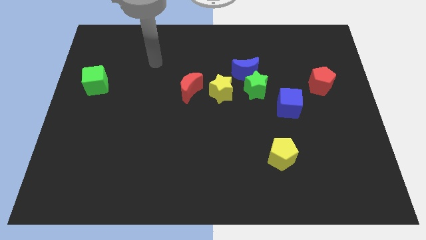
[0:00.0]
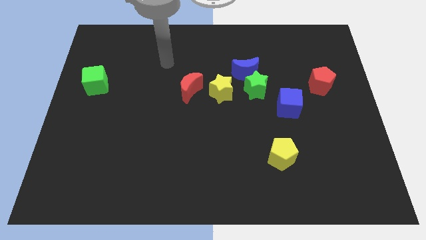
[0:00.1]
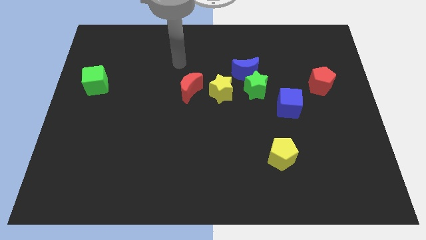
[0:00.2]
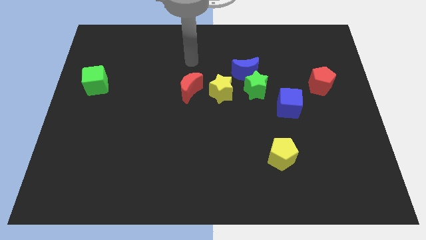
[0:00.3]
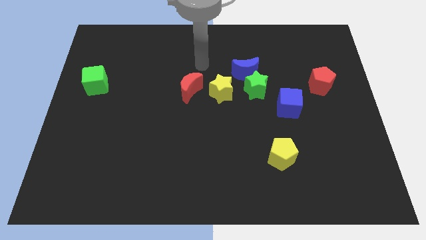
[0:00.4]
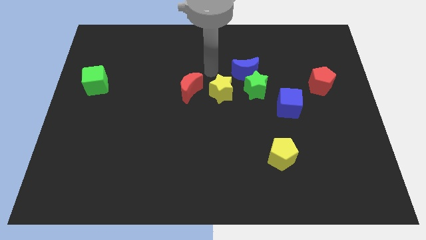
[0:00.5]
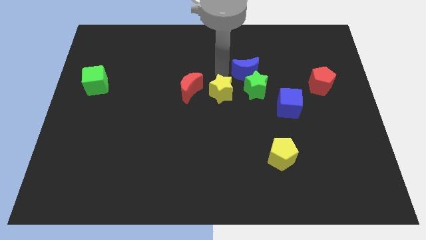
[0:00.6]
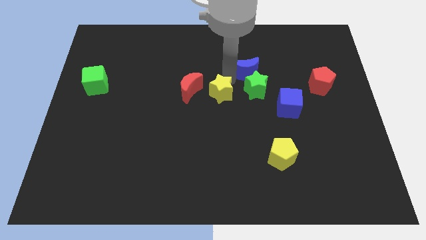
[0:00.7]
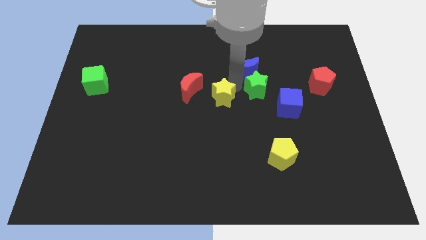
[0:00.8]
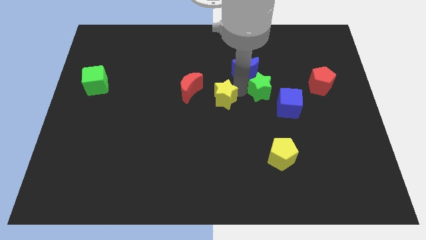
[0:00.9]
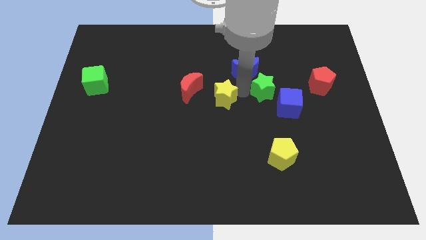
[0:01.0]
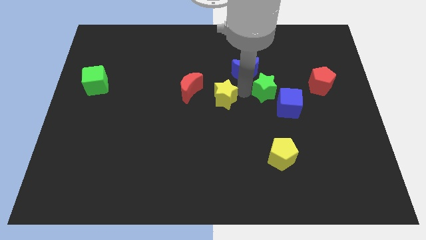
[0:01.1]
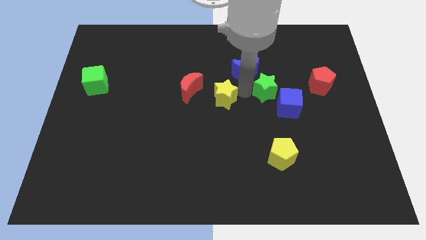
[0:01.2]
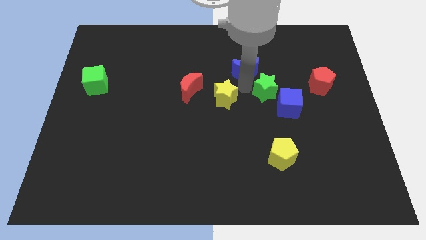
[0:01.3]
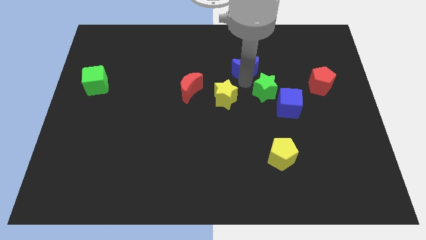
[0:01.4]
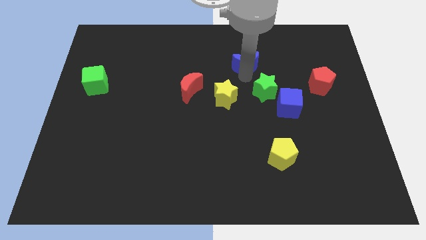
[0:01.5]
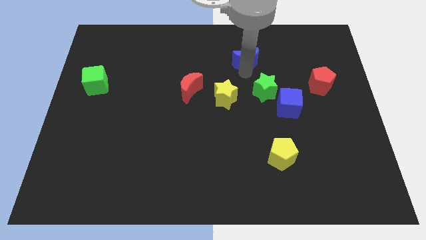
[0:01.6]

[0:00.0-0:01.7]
pull the blue moon apart from the green star and yellow star

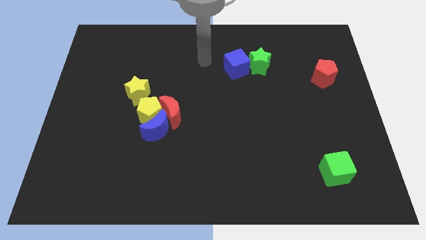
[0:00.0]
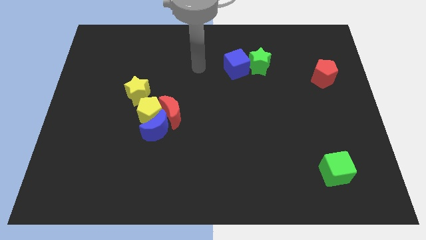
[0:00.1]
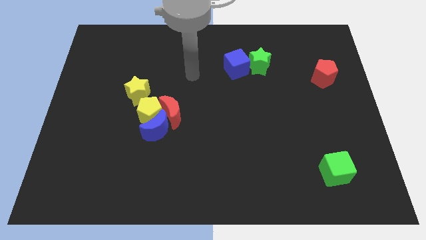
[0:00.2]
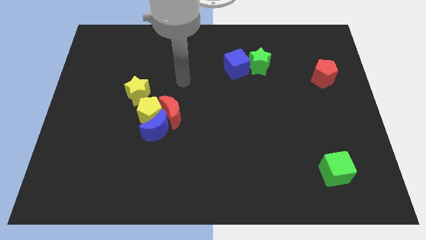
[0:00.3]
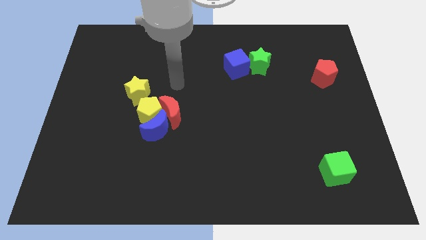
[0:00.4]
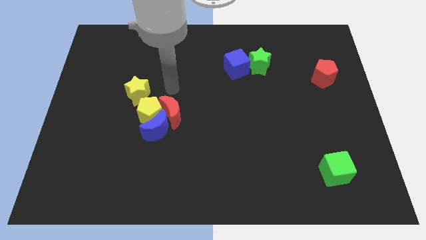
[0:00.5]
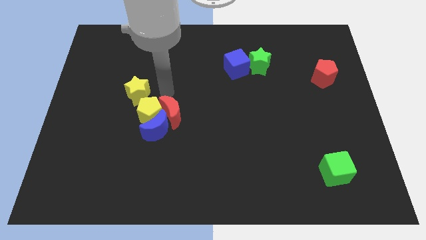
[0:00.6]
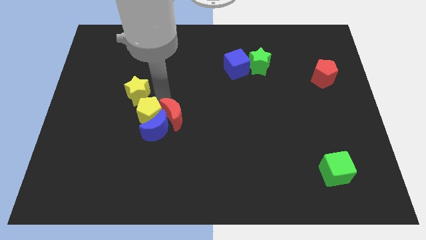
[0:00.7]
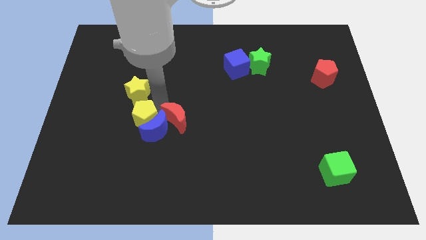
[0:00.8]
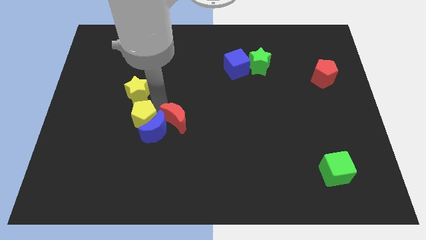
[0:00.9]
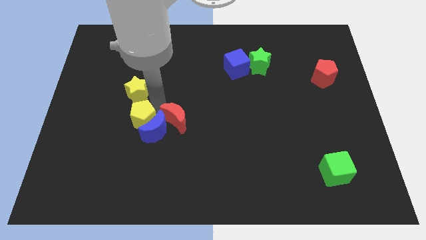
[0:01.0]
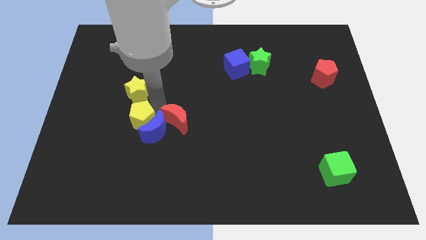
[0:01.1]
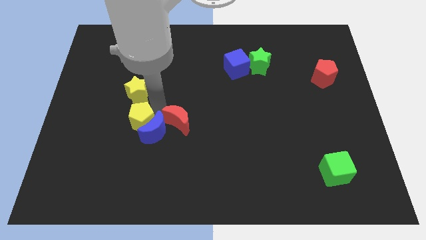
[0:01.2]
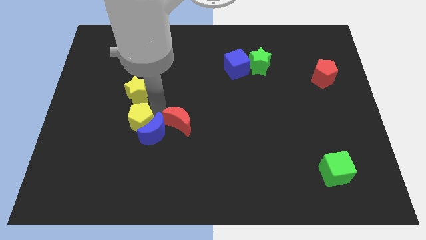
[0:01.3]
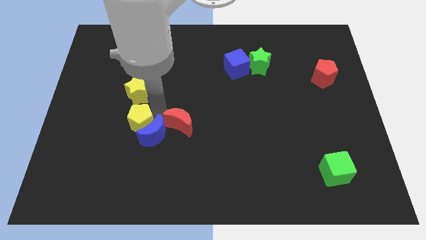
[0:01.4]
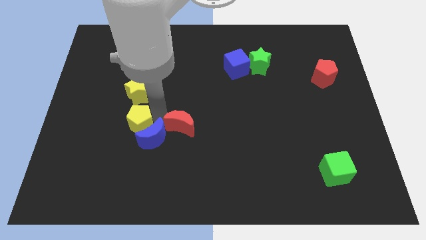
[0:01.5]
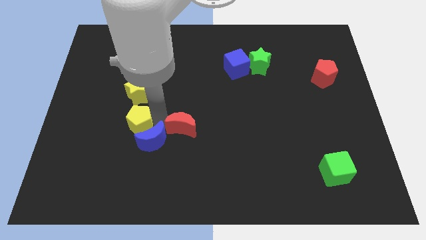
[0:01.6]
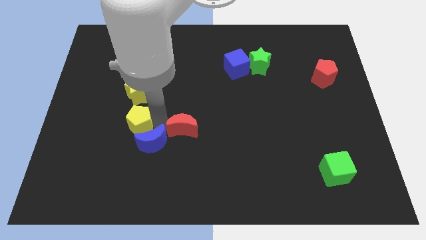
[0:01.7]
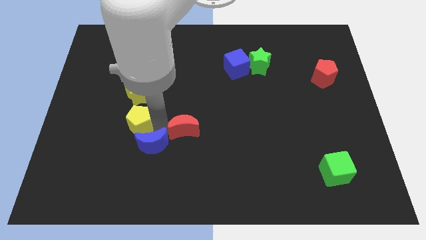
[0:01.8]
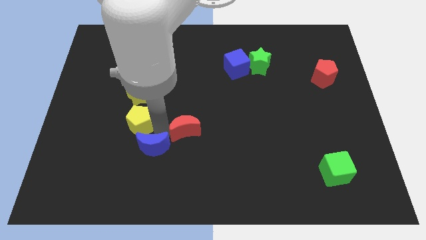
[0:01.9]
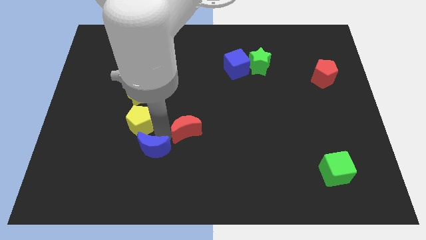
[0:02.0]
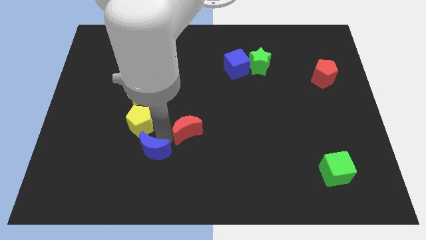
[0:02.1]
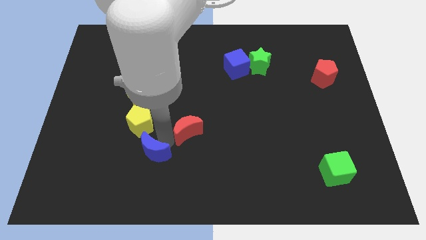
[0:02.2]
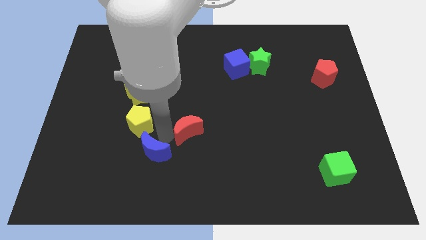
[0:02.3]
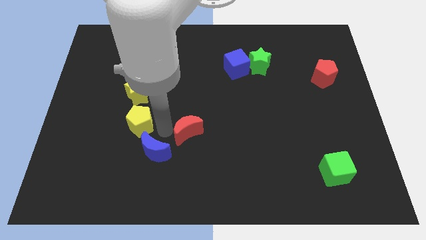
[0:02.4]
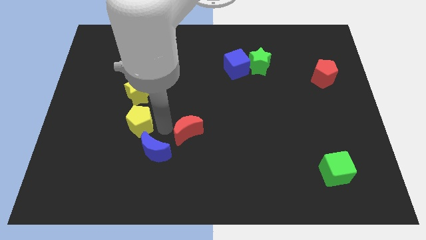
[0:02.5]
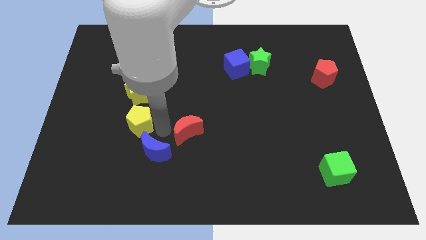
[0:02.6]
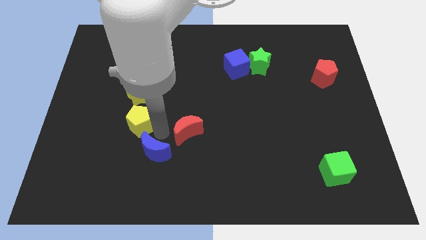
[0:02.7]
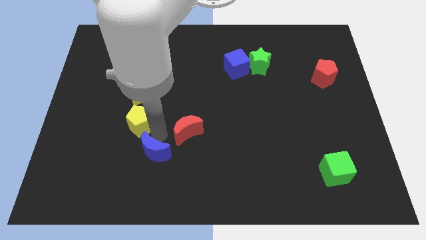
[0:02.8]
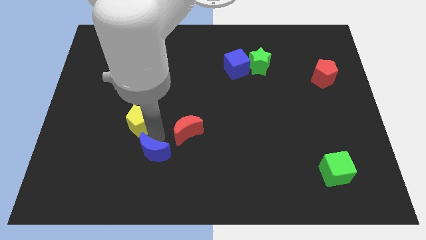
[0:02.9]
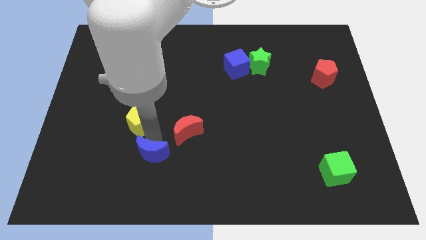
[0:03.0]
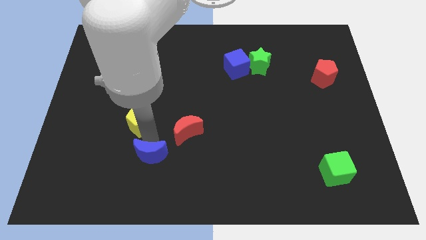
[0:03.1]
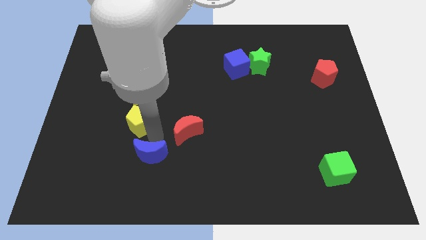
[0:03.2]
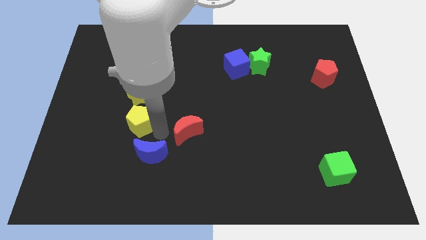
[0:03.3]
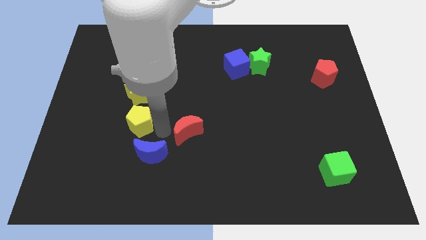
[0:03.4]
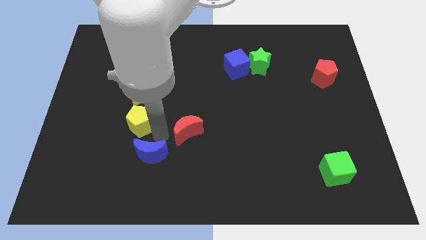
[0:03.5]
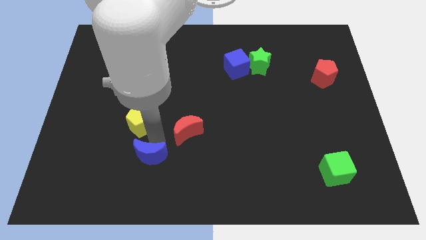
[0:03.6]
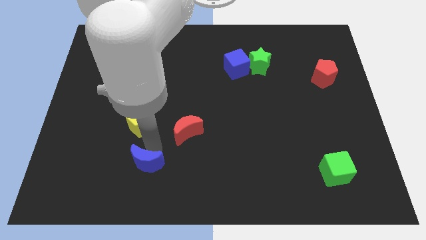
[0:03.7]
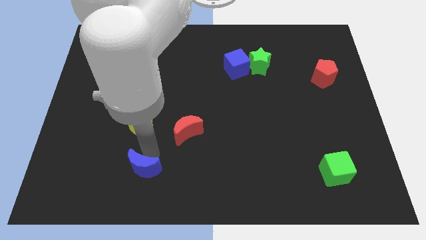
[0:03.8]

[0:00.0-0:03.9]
pull the blue moon apart from the yellow pentagon and red moon

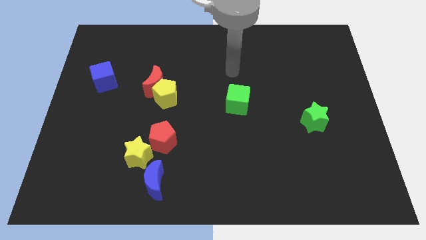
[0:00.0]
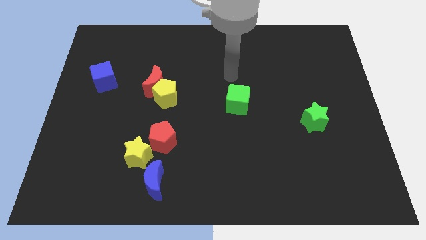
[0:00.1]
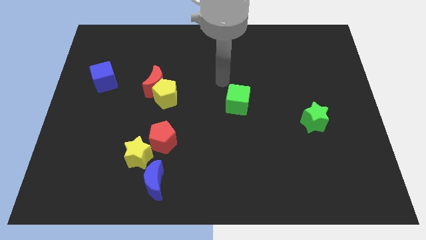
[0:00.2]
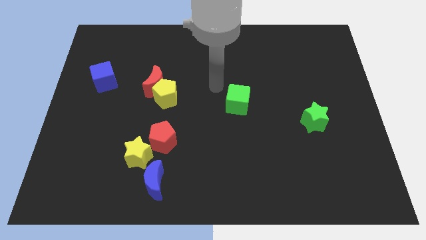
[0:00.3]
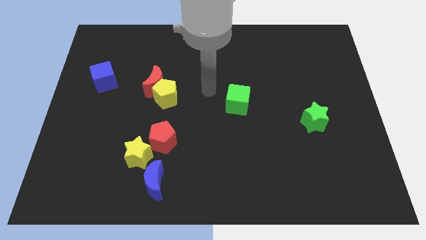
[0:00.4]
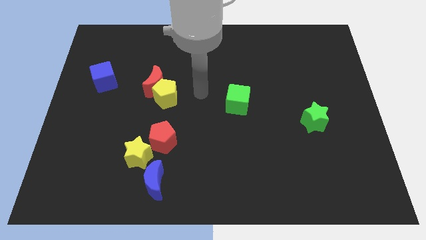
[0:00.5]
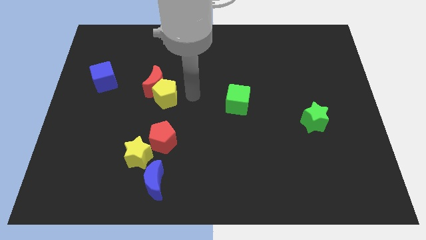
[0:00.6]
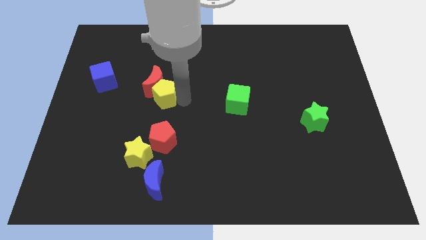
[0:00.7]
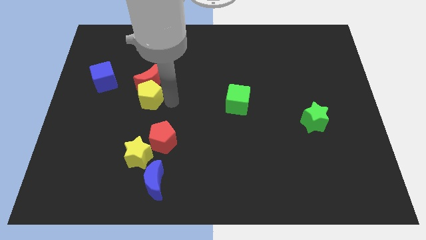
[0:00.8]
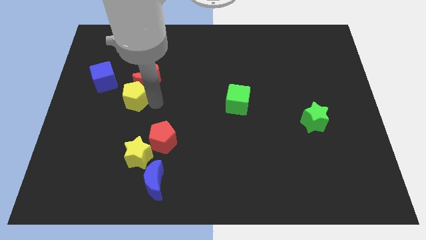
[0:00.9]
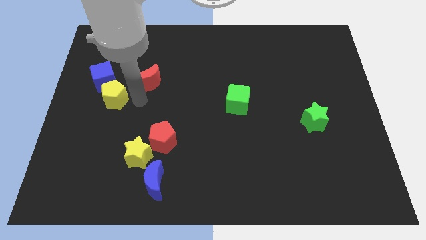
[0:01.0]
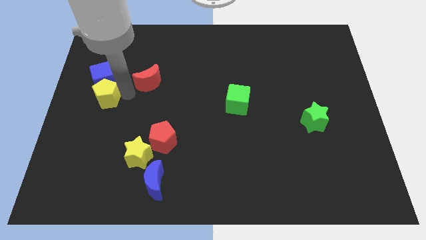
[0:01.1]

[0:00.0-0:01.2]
separate the red moon from the yellow pentagon

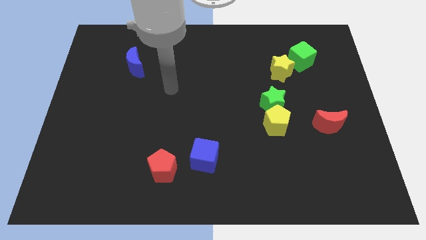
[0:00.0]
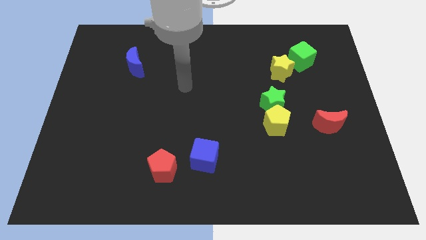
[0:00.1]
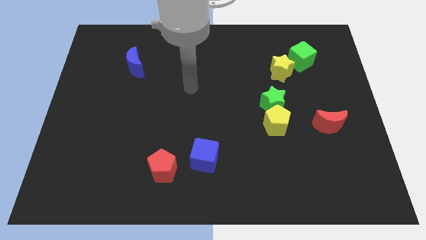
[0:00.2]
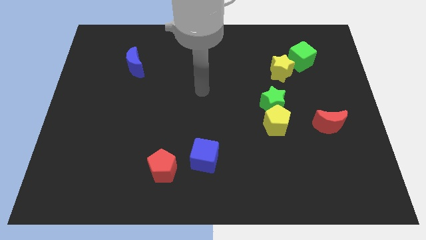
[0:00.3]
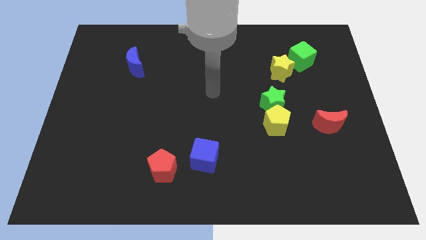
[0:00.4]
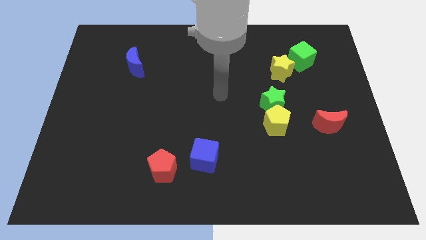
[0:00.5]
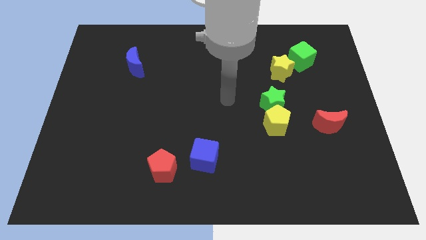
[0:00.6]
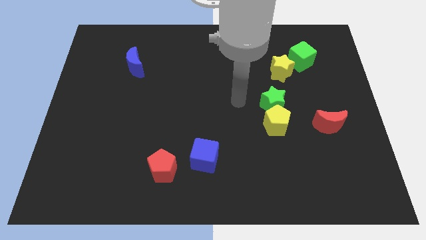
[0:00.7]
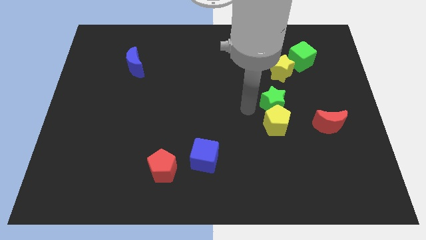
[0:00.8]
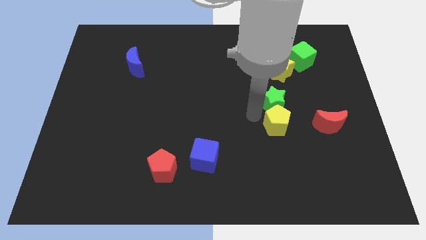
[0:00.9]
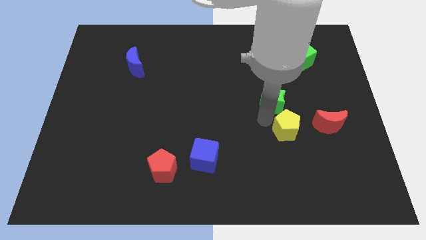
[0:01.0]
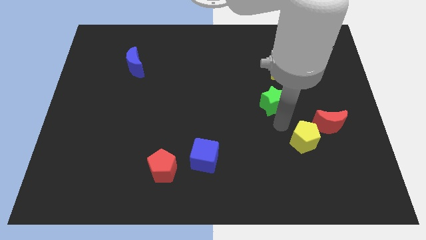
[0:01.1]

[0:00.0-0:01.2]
move the green star away from the yellow pentagon

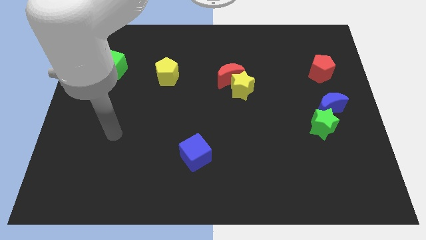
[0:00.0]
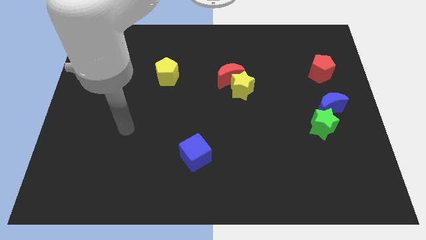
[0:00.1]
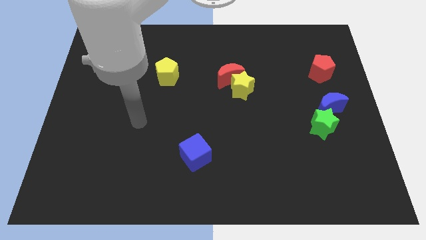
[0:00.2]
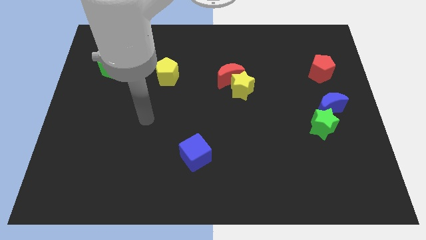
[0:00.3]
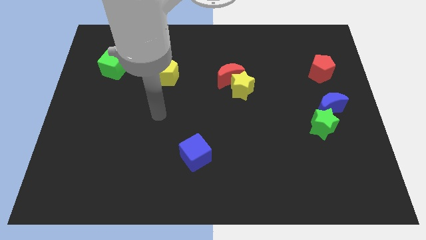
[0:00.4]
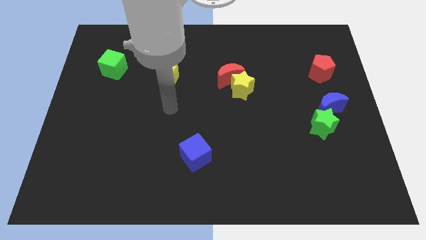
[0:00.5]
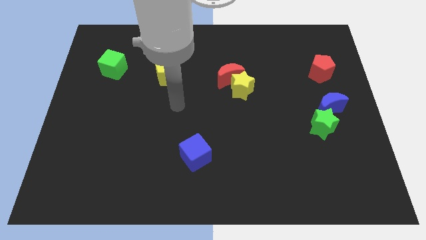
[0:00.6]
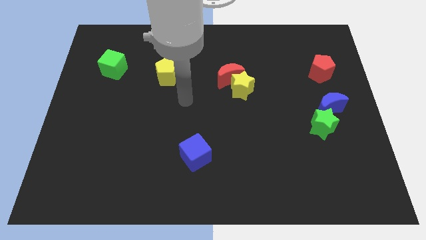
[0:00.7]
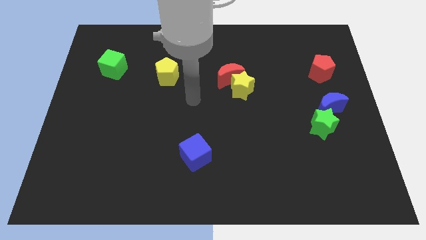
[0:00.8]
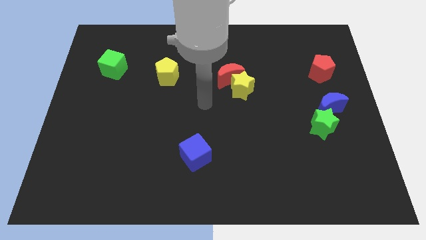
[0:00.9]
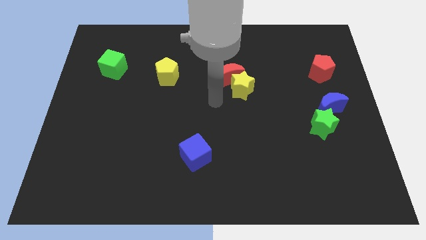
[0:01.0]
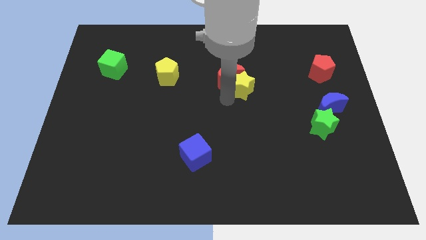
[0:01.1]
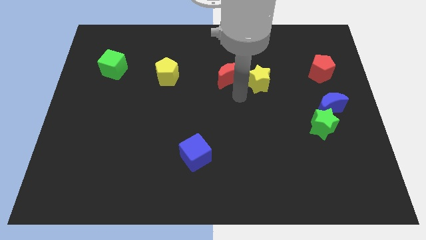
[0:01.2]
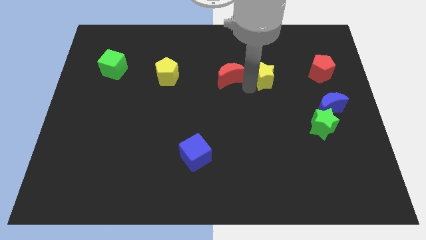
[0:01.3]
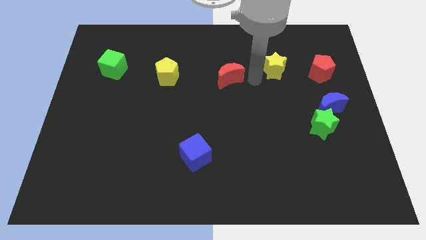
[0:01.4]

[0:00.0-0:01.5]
pull the red moon apart from the yellow star
